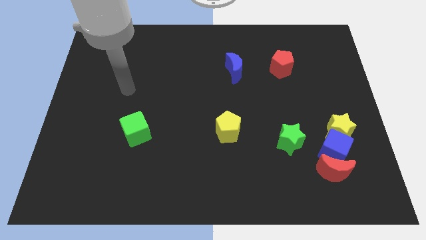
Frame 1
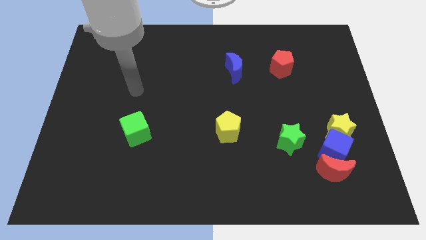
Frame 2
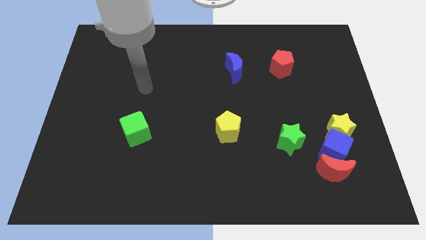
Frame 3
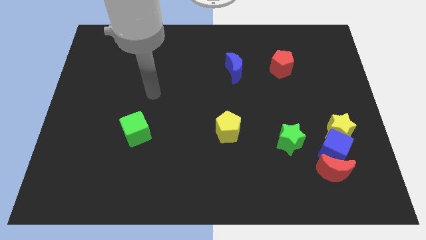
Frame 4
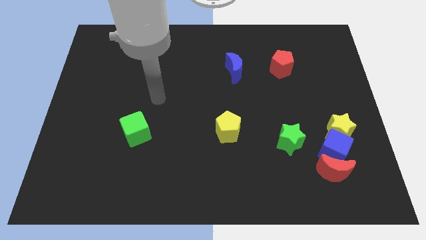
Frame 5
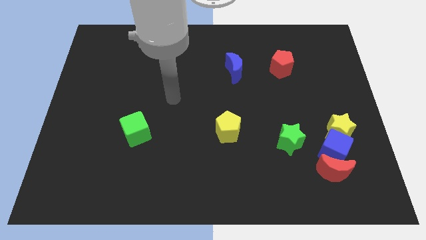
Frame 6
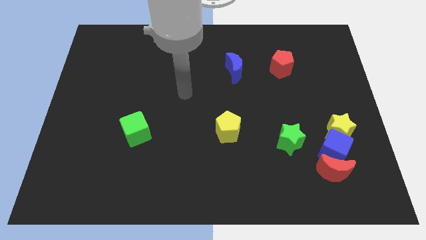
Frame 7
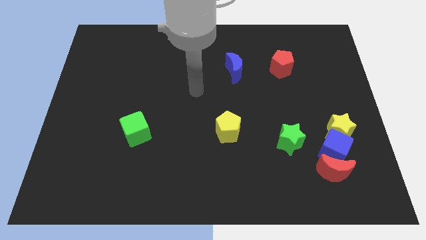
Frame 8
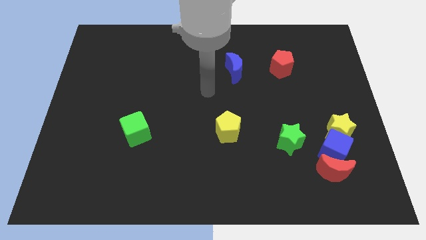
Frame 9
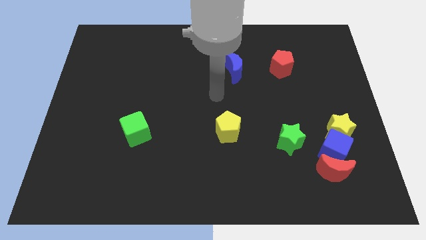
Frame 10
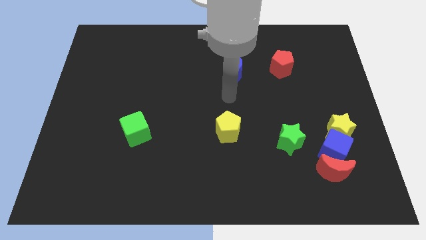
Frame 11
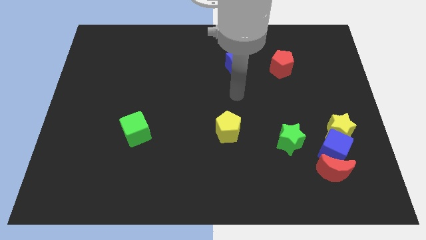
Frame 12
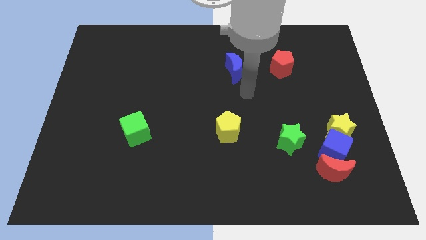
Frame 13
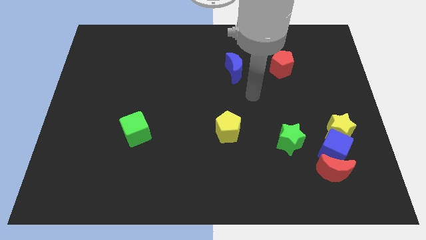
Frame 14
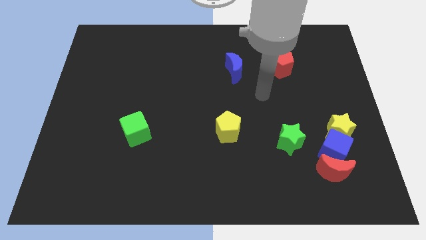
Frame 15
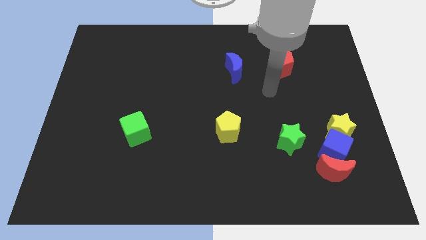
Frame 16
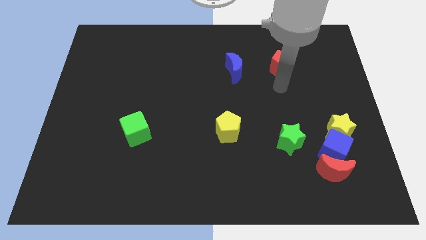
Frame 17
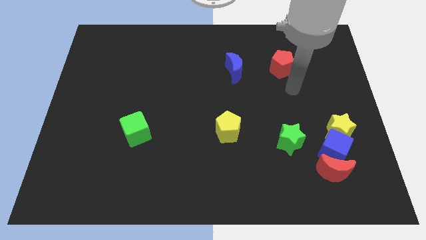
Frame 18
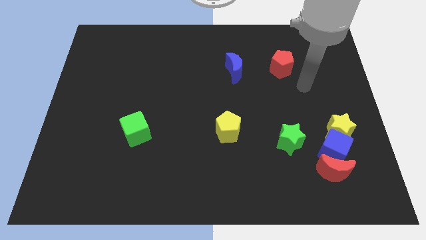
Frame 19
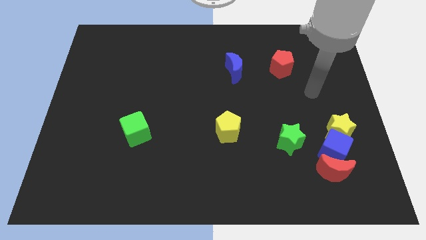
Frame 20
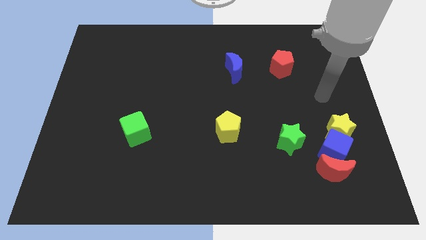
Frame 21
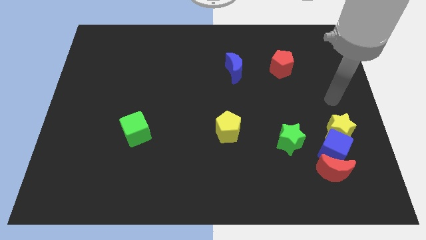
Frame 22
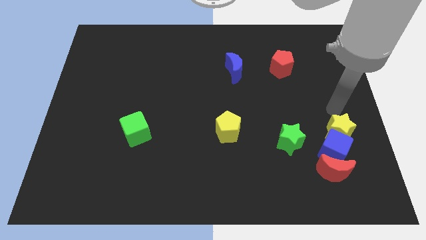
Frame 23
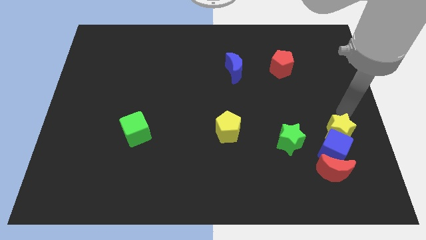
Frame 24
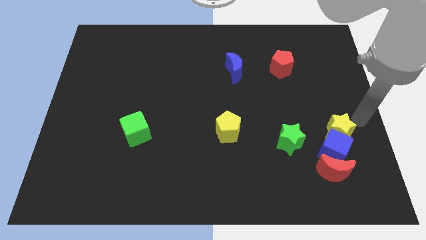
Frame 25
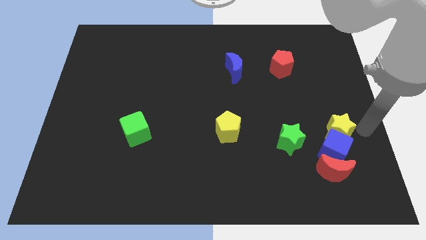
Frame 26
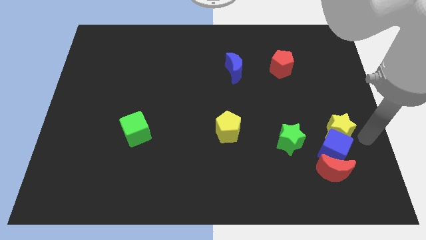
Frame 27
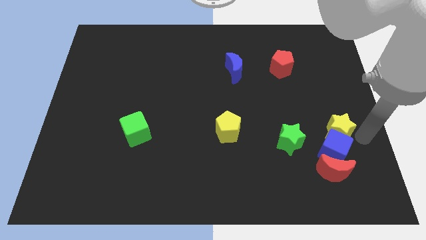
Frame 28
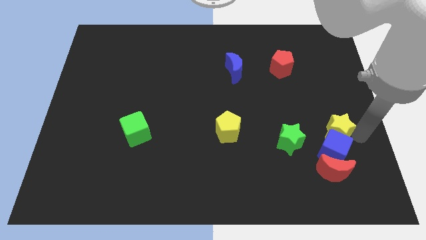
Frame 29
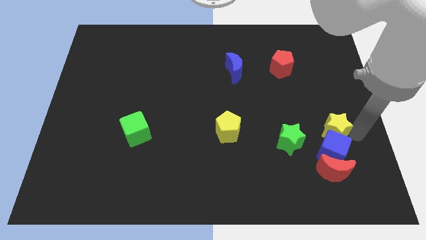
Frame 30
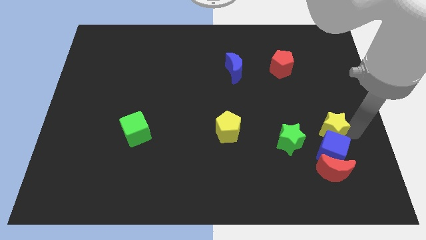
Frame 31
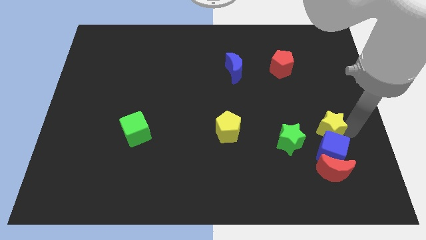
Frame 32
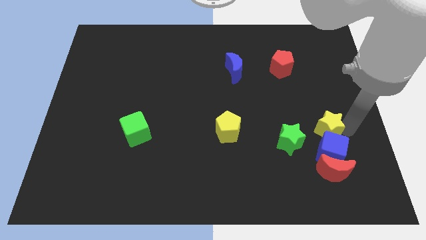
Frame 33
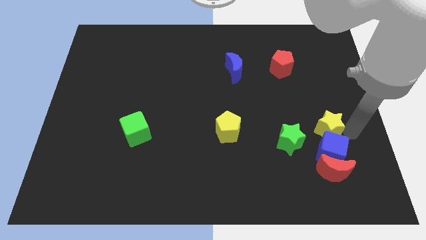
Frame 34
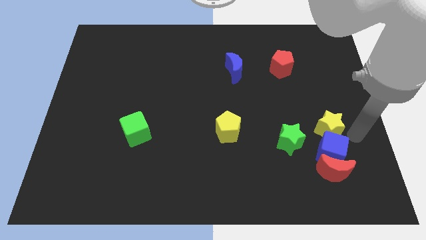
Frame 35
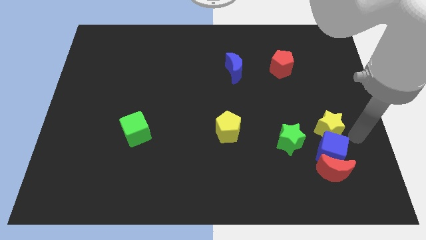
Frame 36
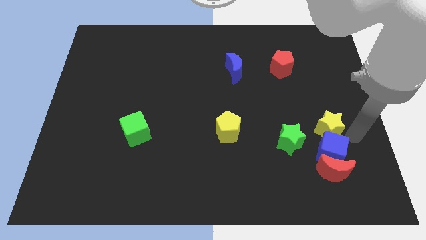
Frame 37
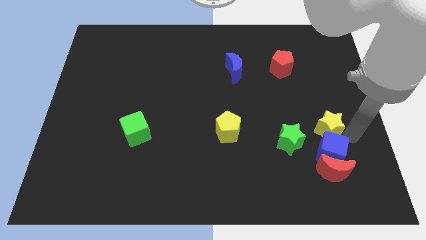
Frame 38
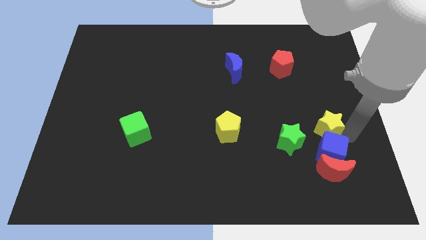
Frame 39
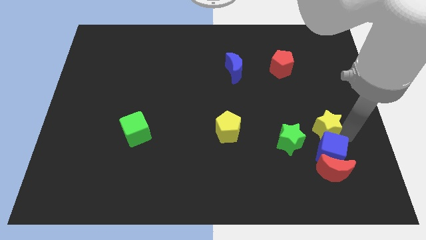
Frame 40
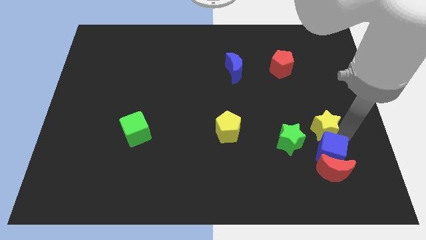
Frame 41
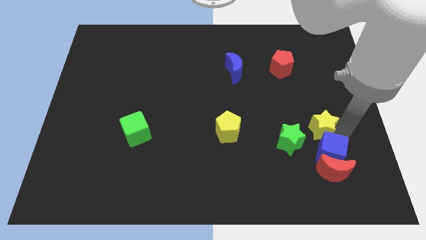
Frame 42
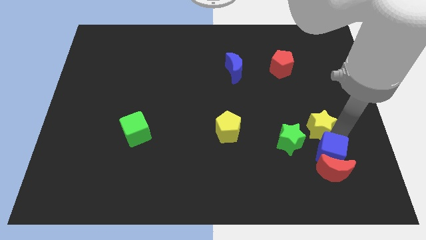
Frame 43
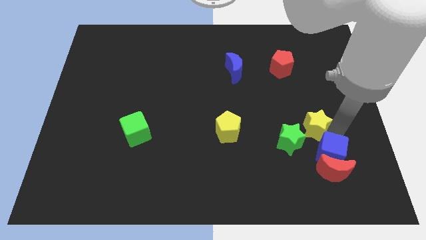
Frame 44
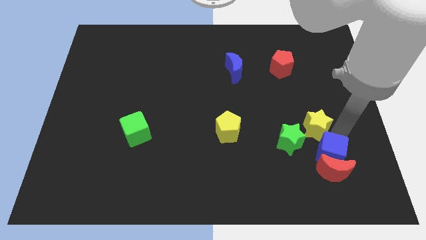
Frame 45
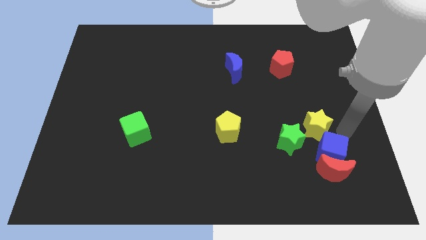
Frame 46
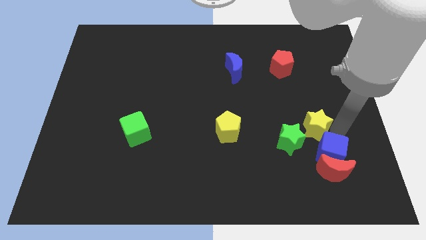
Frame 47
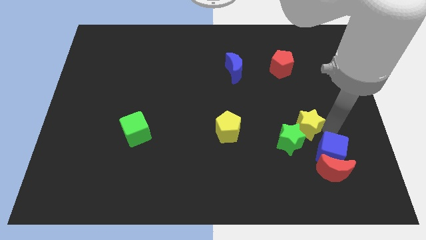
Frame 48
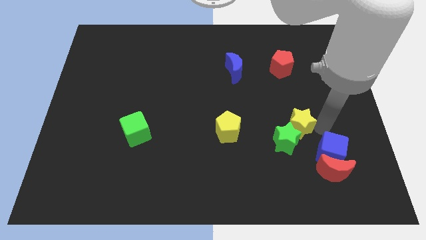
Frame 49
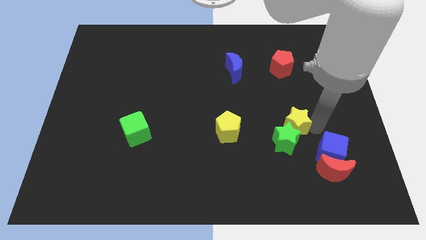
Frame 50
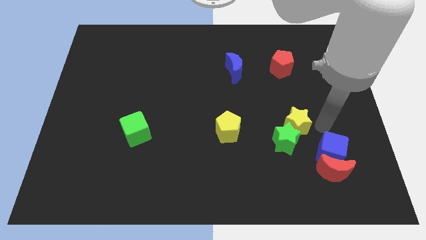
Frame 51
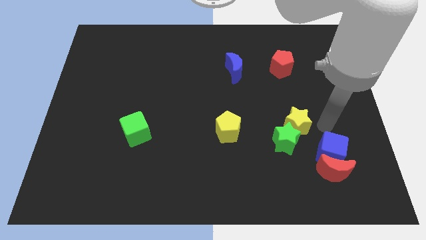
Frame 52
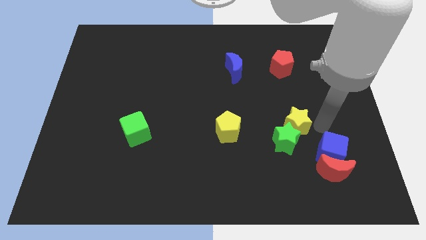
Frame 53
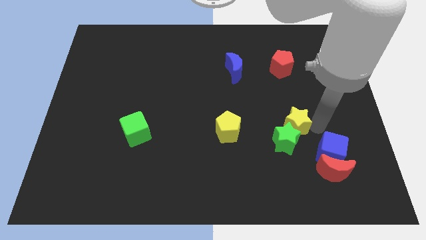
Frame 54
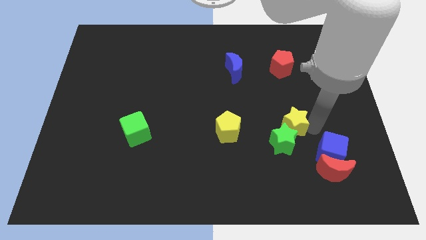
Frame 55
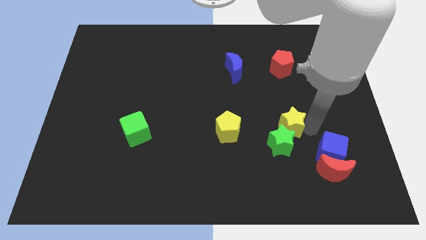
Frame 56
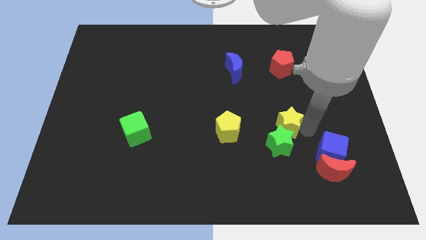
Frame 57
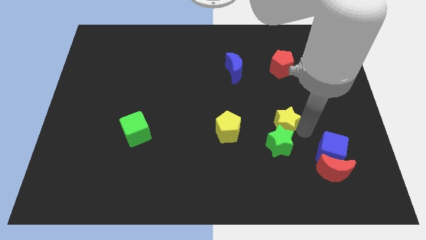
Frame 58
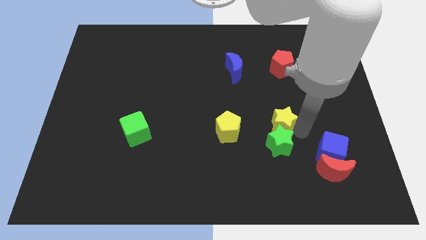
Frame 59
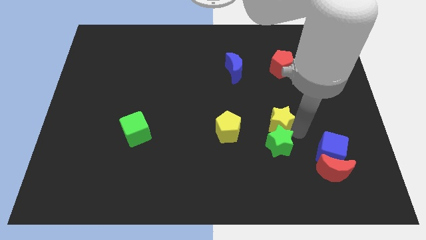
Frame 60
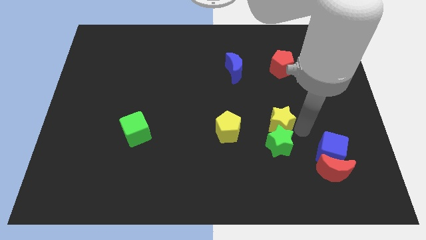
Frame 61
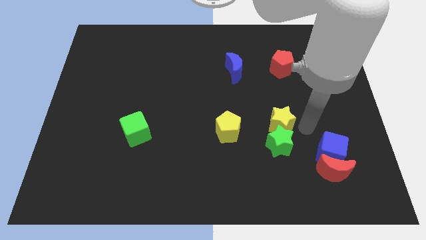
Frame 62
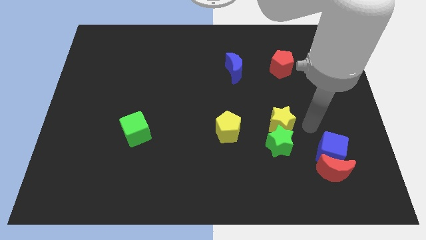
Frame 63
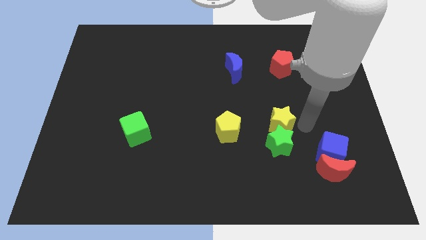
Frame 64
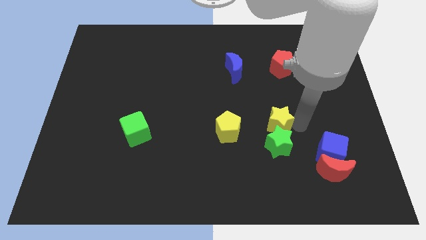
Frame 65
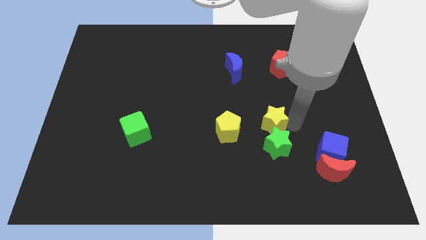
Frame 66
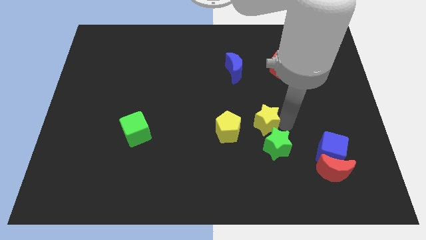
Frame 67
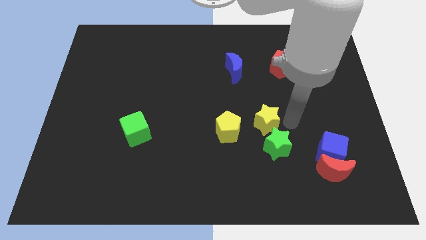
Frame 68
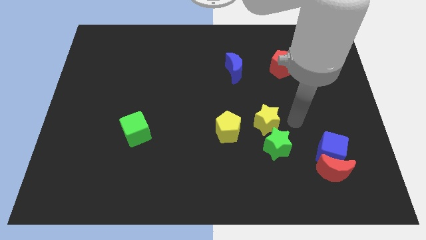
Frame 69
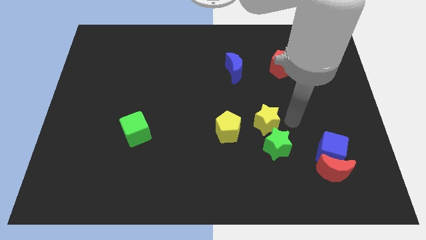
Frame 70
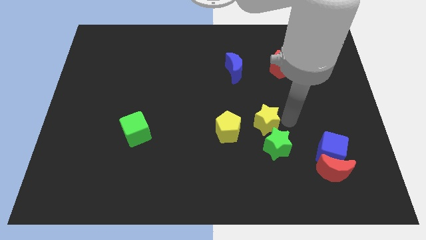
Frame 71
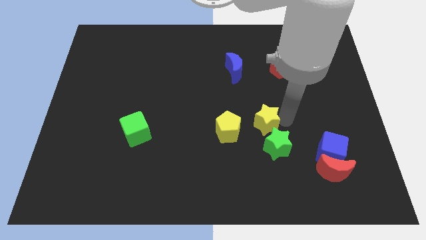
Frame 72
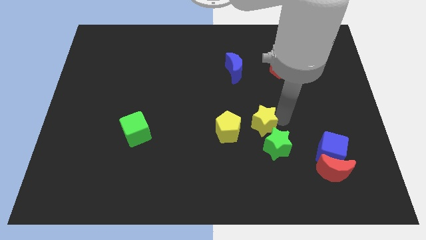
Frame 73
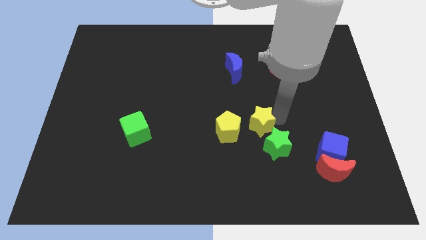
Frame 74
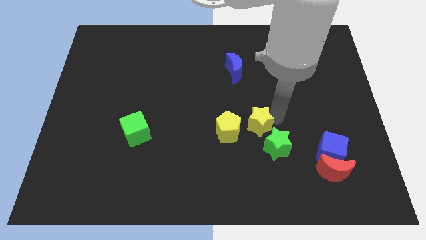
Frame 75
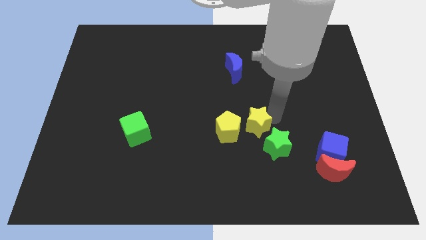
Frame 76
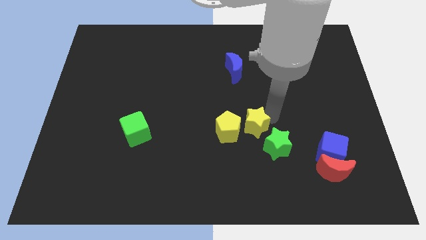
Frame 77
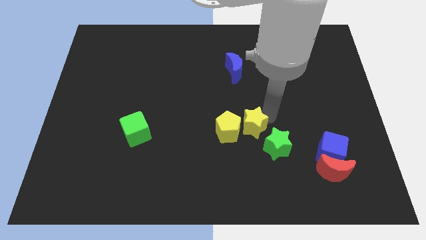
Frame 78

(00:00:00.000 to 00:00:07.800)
slide the yellow star to the yellow pentagon

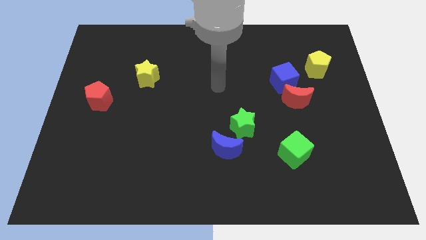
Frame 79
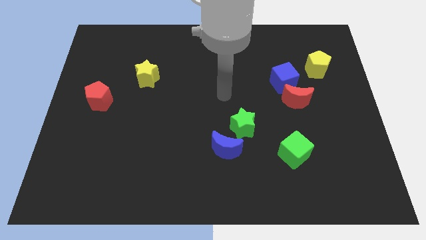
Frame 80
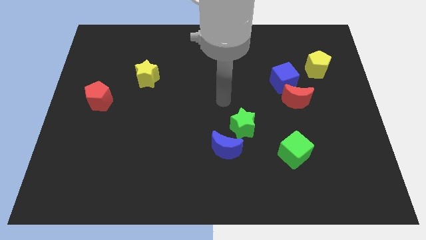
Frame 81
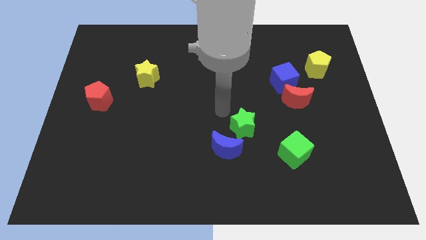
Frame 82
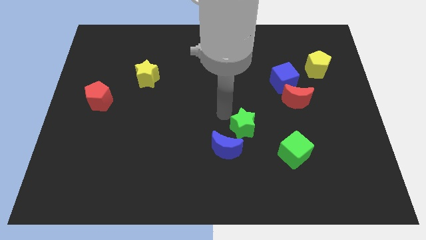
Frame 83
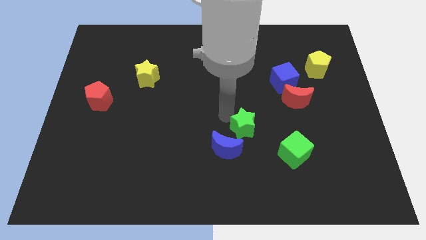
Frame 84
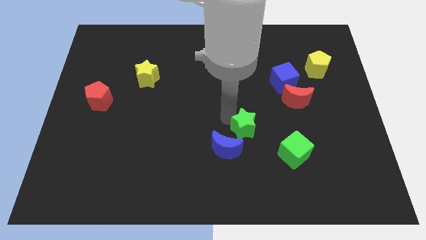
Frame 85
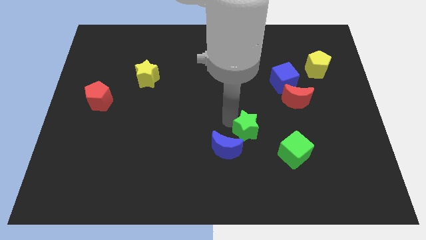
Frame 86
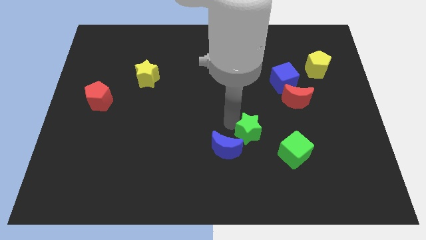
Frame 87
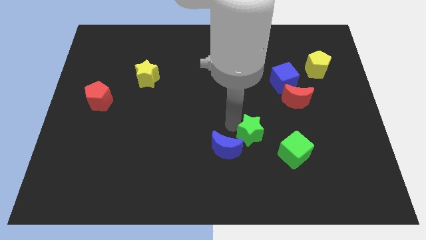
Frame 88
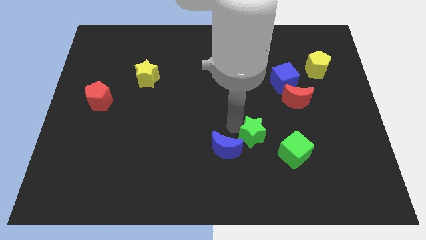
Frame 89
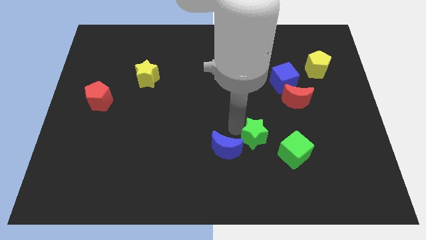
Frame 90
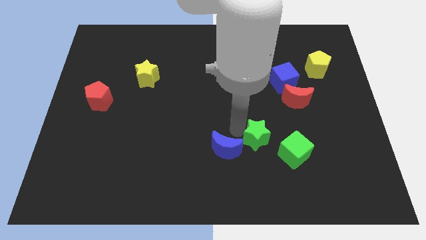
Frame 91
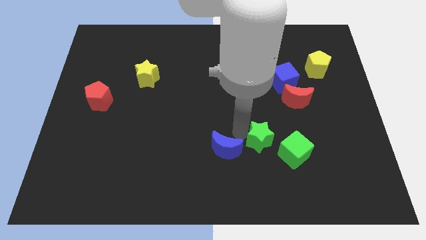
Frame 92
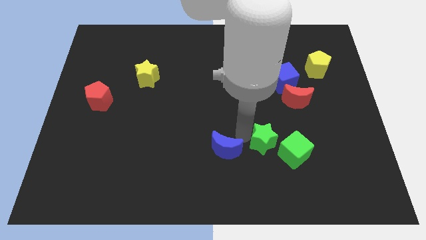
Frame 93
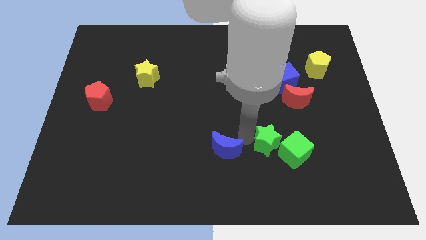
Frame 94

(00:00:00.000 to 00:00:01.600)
move the green star towards the green cube
